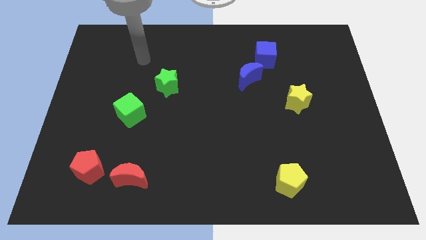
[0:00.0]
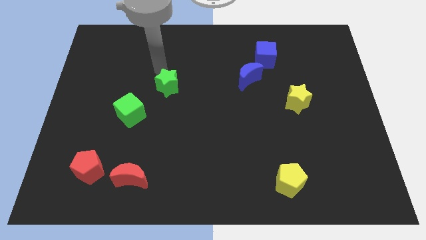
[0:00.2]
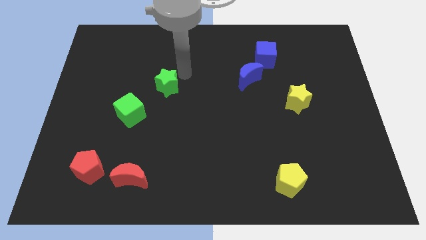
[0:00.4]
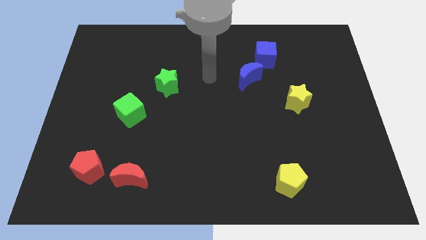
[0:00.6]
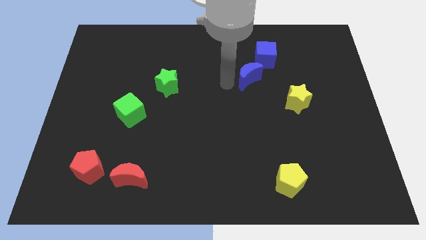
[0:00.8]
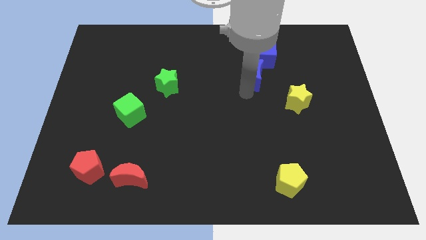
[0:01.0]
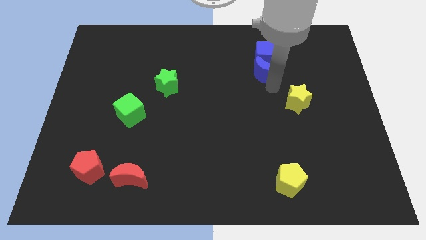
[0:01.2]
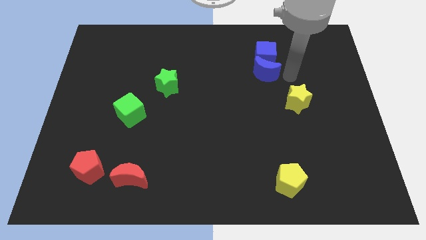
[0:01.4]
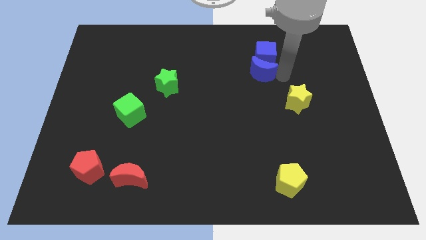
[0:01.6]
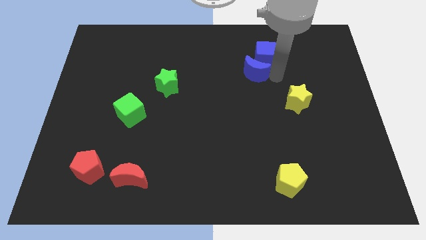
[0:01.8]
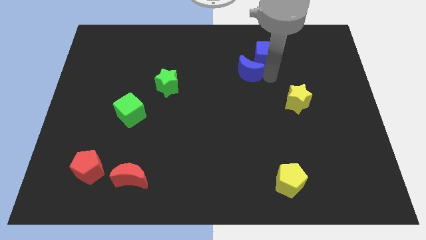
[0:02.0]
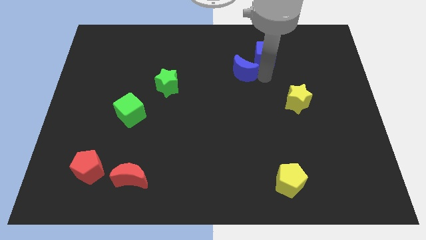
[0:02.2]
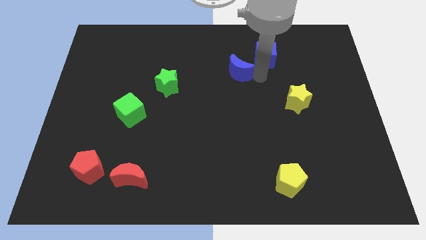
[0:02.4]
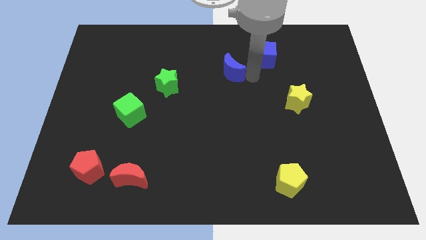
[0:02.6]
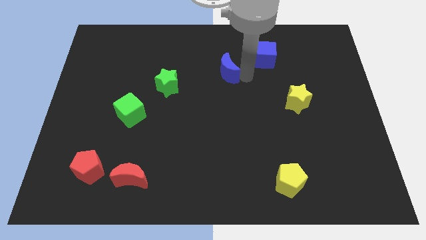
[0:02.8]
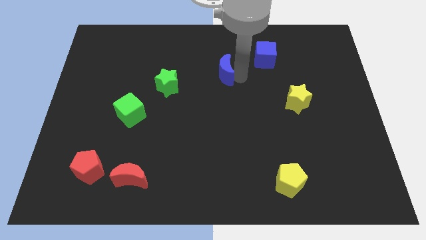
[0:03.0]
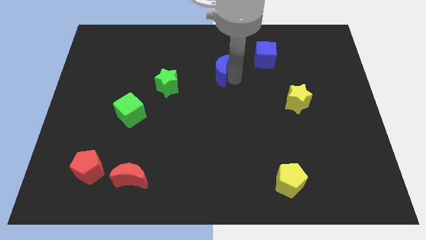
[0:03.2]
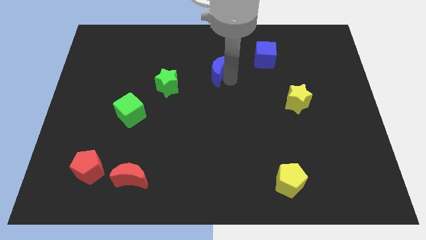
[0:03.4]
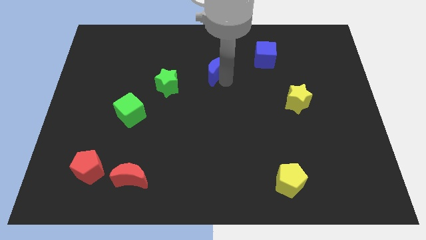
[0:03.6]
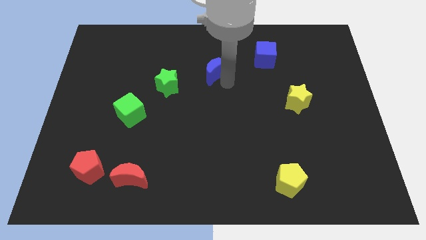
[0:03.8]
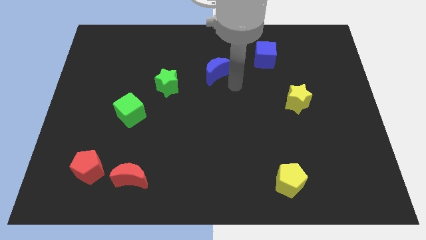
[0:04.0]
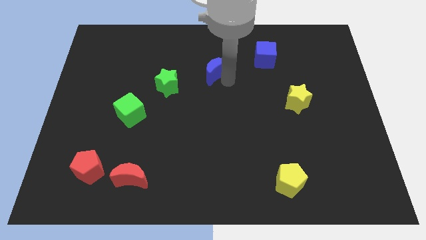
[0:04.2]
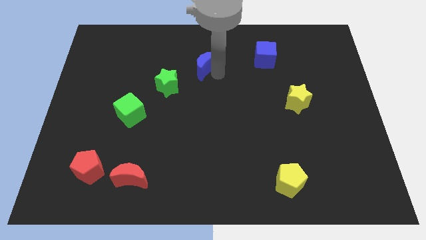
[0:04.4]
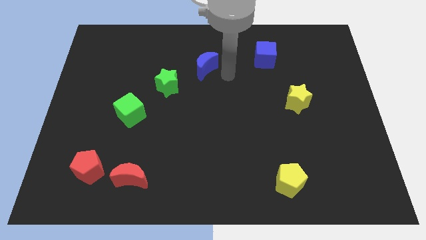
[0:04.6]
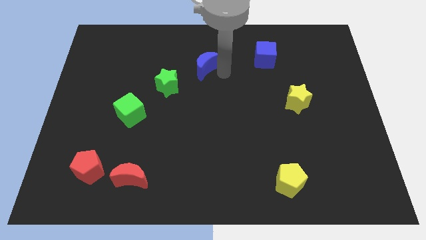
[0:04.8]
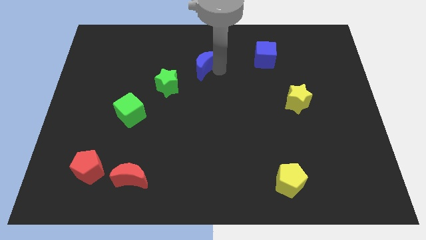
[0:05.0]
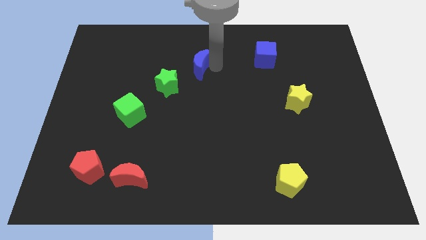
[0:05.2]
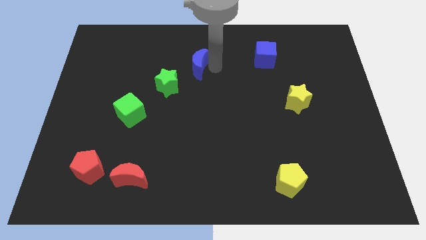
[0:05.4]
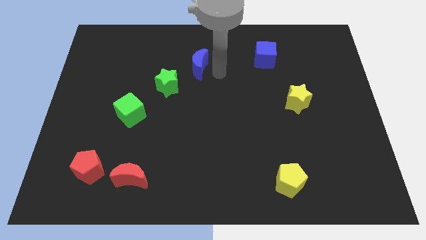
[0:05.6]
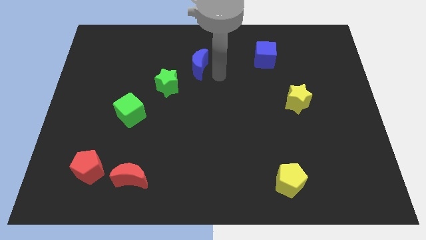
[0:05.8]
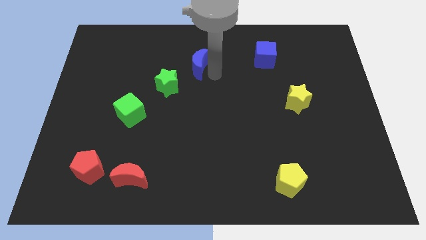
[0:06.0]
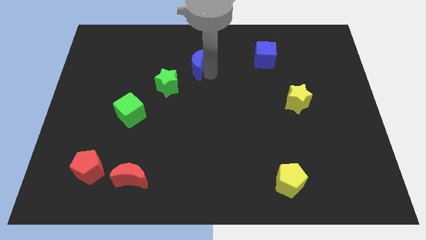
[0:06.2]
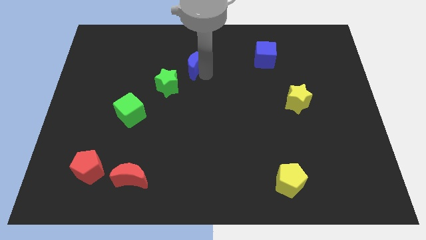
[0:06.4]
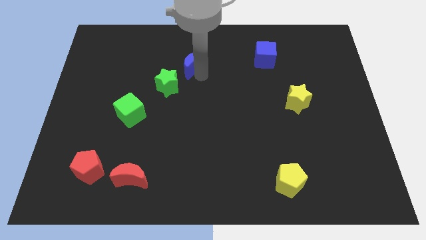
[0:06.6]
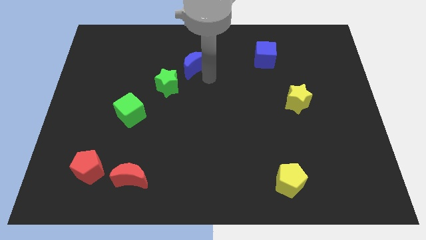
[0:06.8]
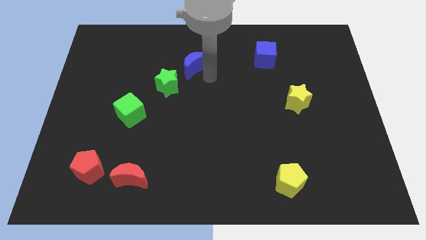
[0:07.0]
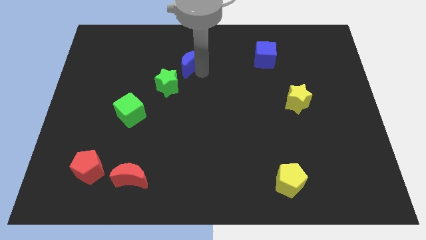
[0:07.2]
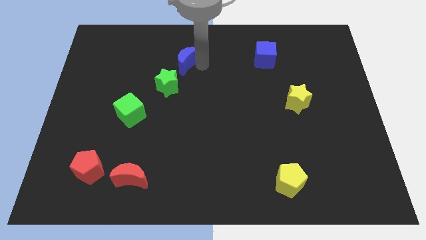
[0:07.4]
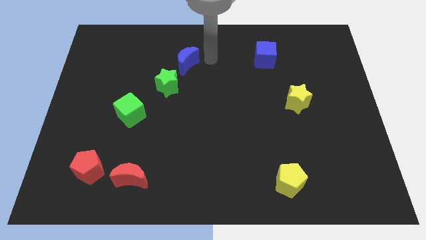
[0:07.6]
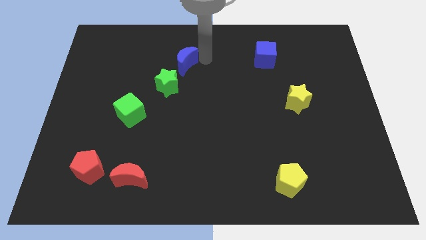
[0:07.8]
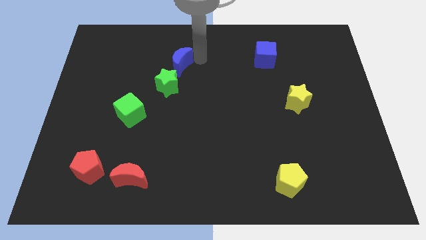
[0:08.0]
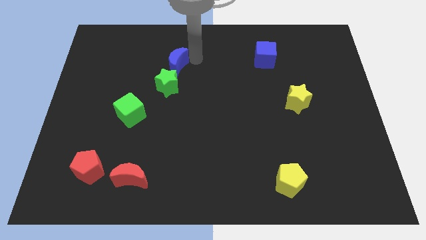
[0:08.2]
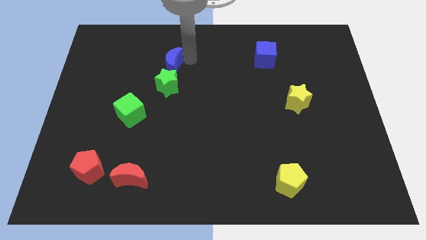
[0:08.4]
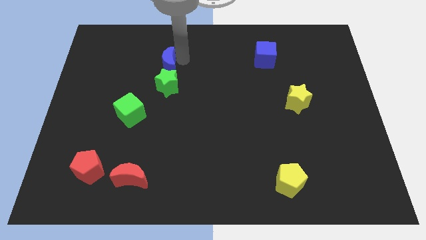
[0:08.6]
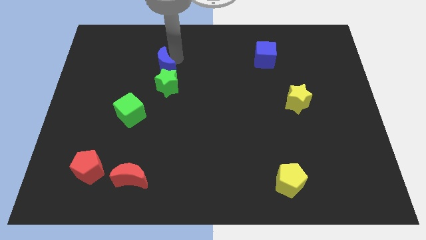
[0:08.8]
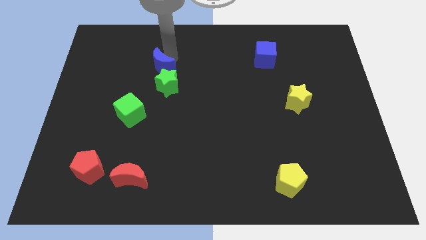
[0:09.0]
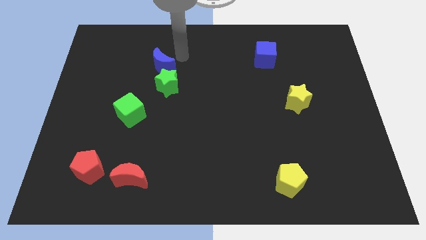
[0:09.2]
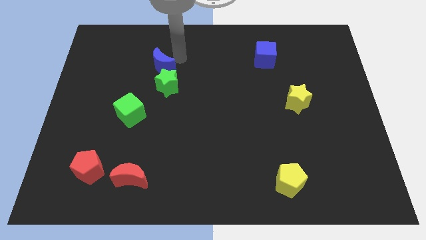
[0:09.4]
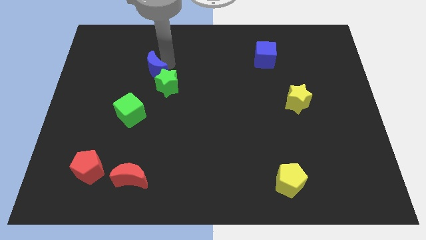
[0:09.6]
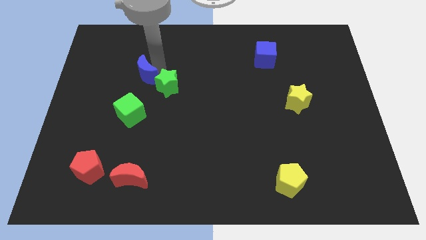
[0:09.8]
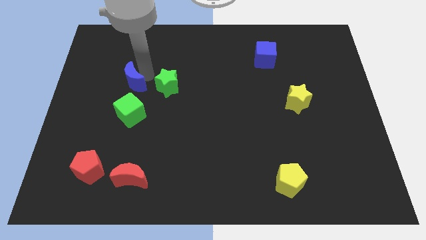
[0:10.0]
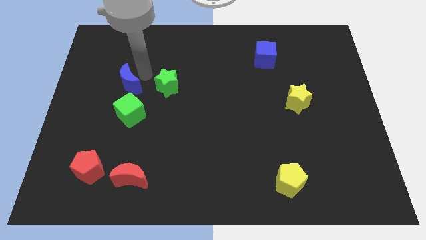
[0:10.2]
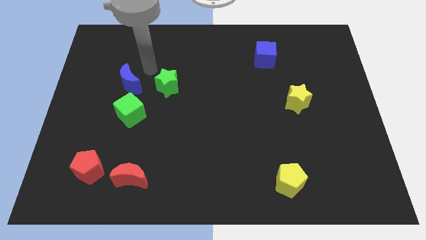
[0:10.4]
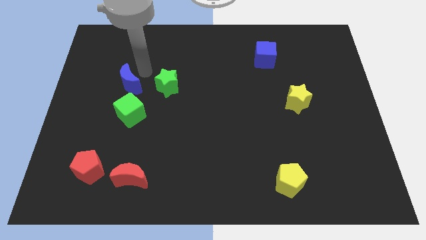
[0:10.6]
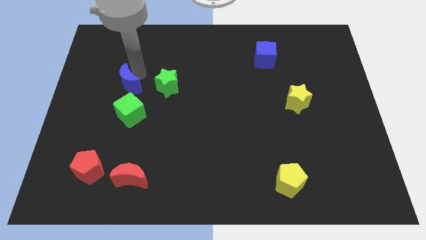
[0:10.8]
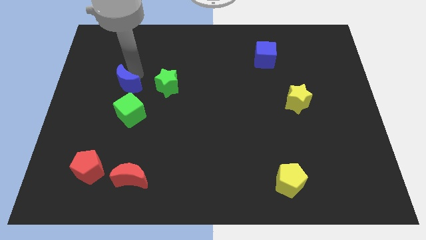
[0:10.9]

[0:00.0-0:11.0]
push the blue moon to the top left of the green cube

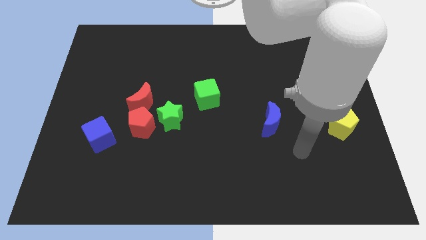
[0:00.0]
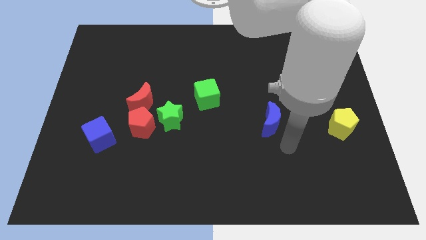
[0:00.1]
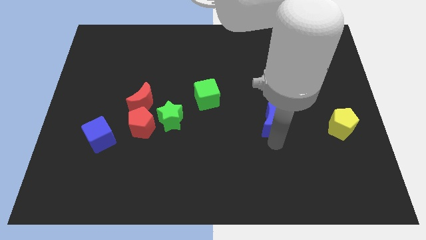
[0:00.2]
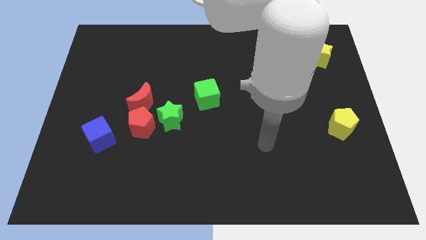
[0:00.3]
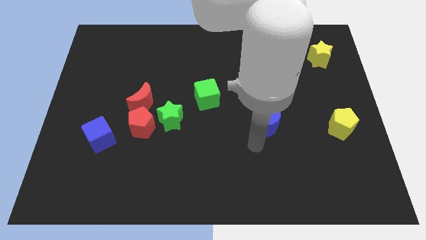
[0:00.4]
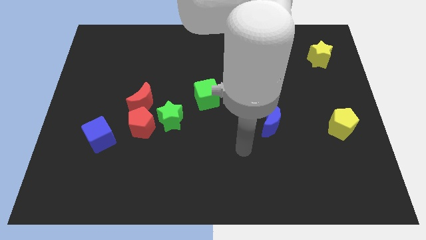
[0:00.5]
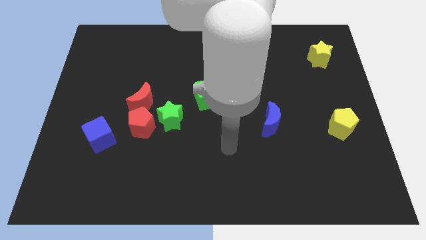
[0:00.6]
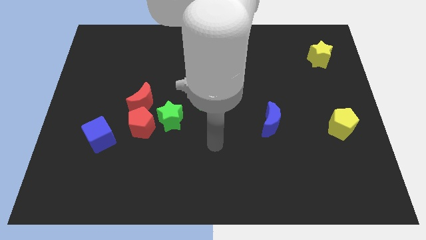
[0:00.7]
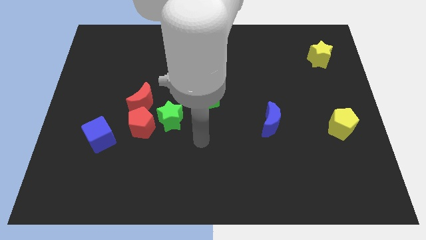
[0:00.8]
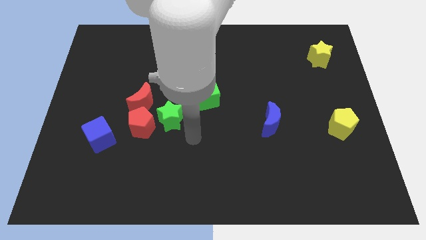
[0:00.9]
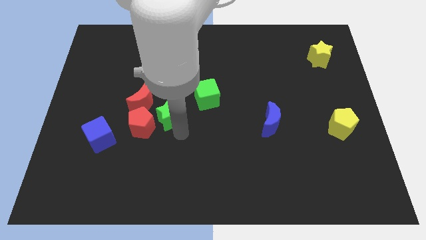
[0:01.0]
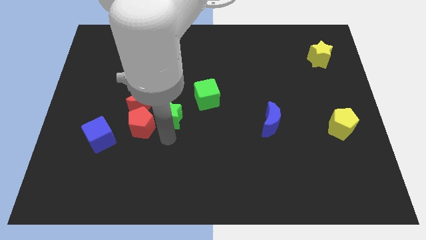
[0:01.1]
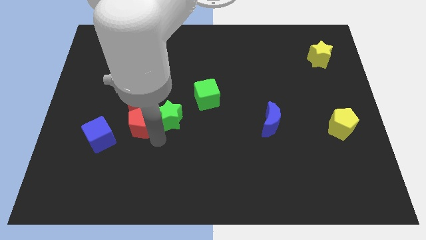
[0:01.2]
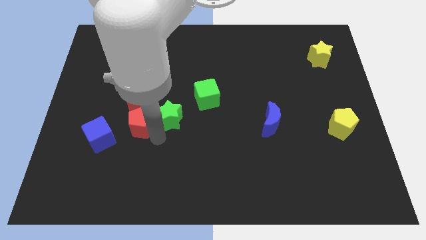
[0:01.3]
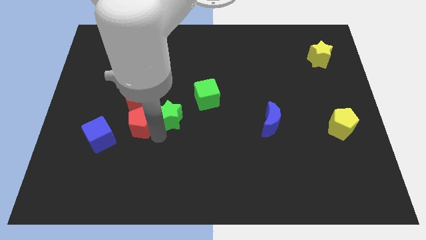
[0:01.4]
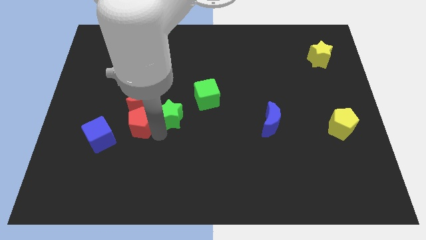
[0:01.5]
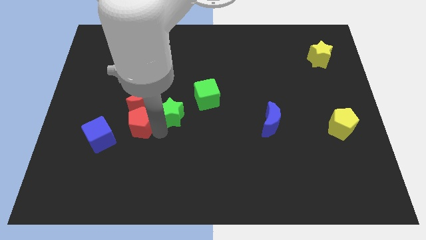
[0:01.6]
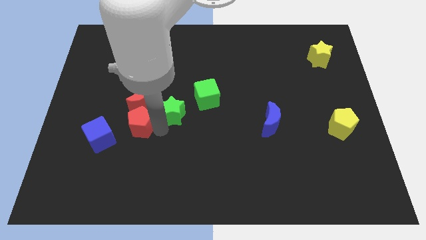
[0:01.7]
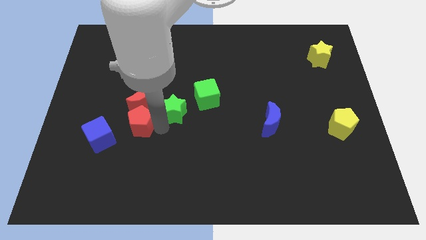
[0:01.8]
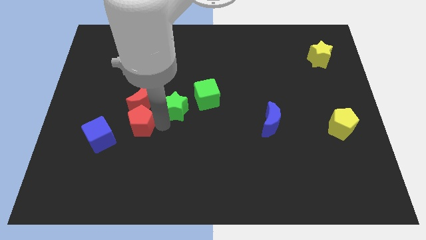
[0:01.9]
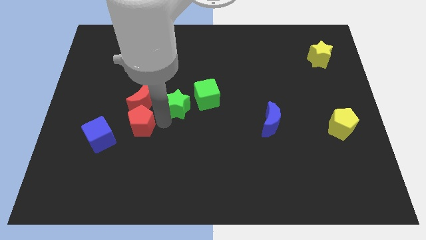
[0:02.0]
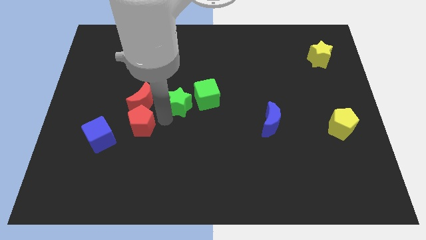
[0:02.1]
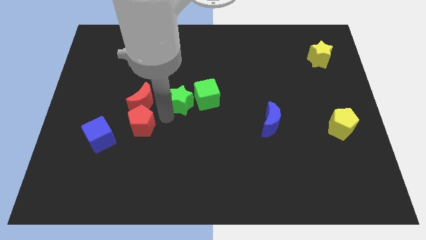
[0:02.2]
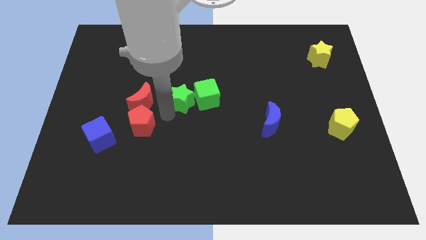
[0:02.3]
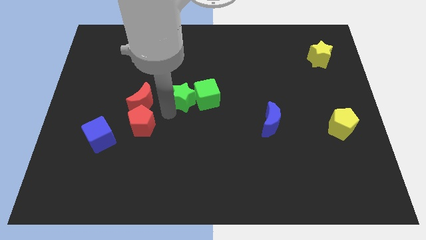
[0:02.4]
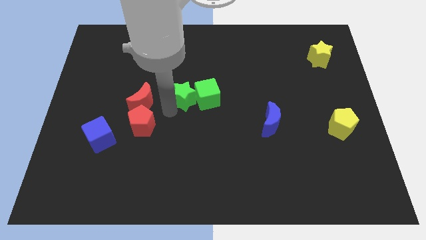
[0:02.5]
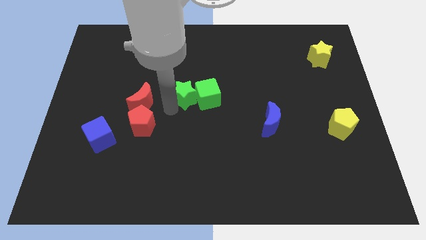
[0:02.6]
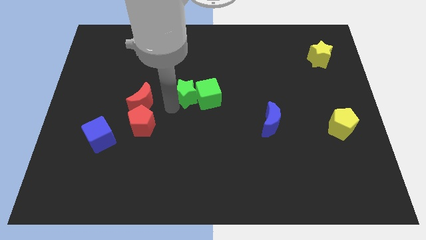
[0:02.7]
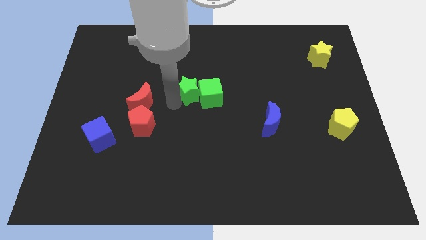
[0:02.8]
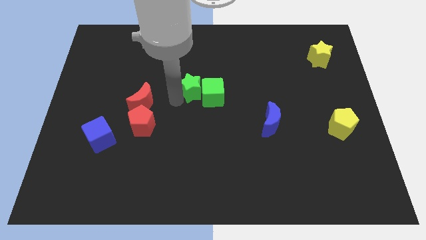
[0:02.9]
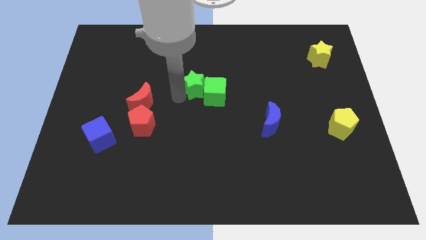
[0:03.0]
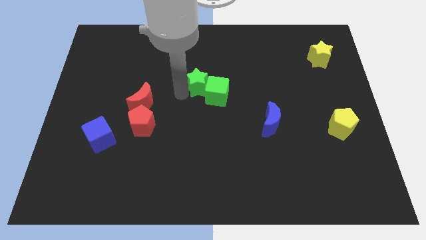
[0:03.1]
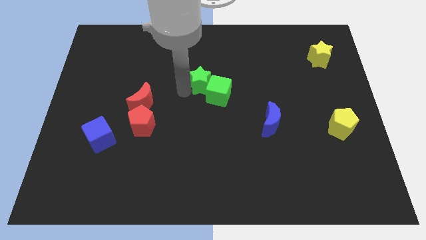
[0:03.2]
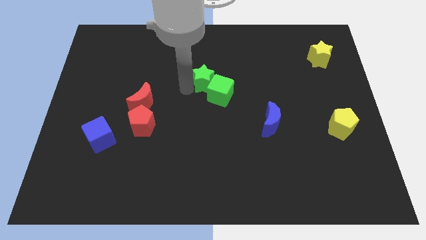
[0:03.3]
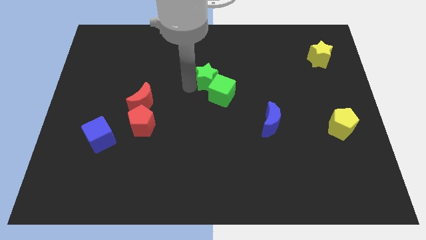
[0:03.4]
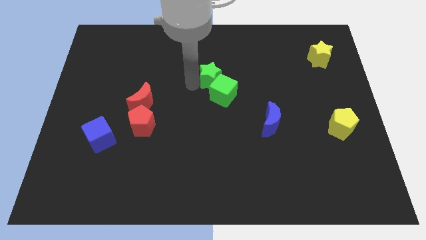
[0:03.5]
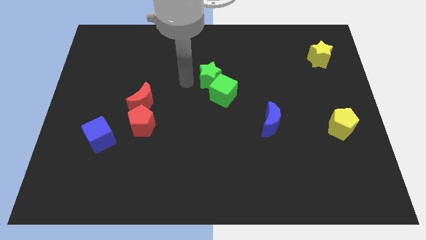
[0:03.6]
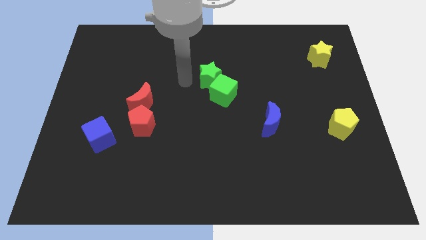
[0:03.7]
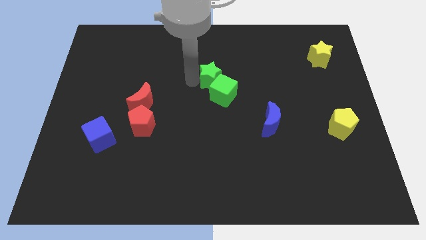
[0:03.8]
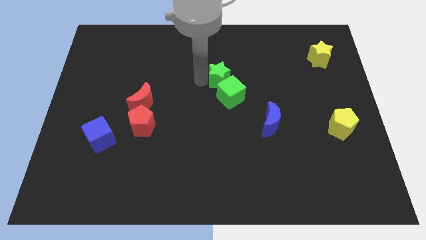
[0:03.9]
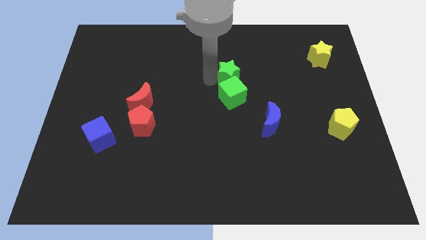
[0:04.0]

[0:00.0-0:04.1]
push the green star to the top right side of the green cube
